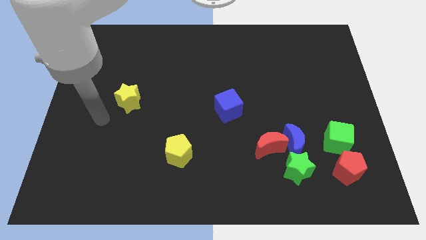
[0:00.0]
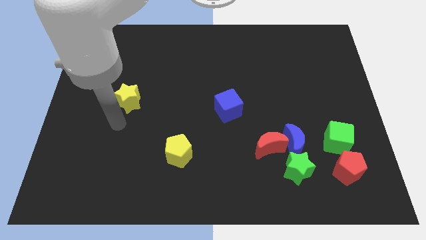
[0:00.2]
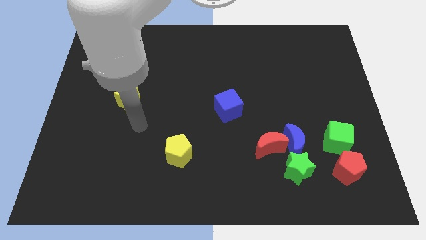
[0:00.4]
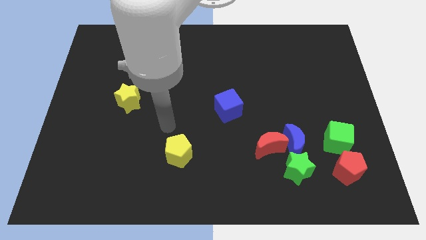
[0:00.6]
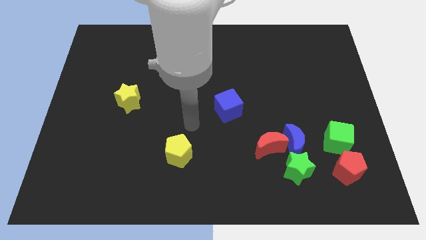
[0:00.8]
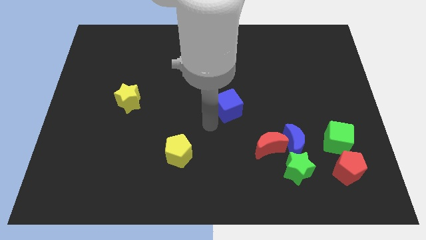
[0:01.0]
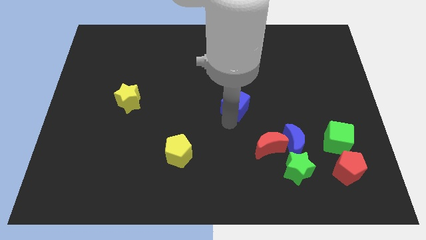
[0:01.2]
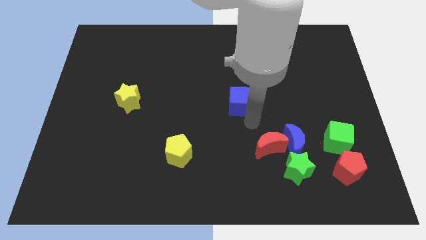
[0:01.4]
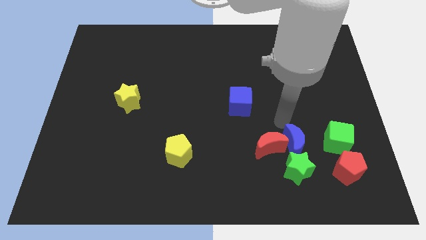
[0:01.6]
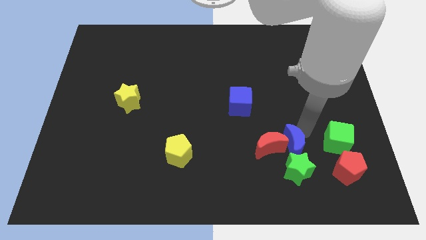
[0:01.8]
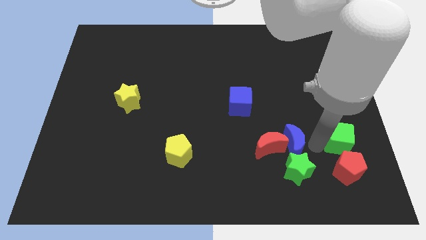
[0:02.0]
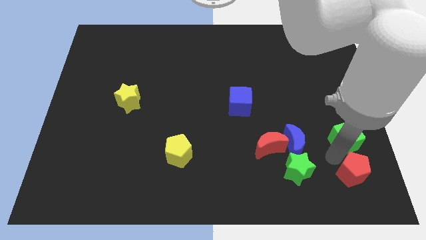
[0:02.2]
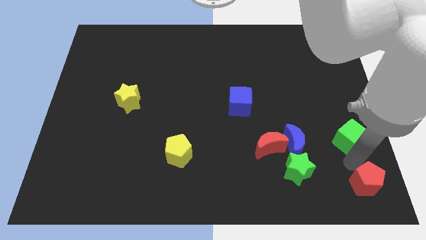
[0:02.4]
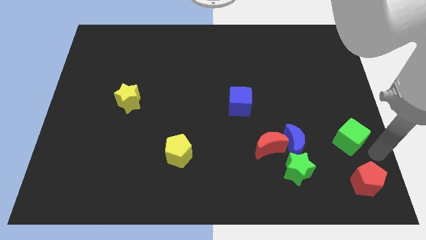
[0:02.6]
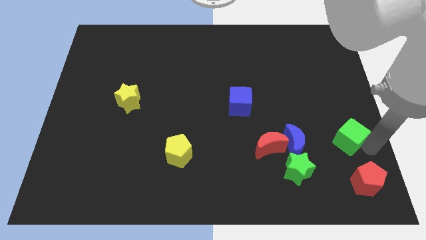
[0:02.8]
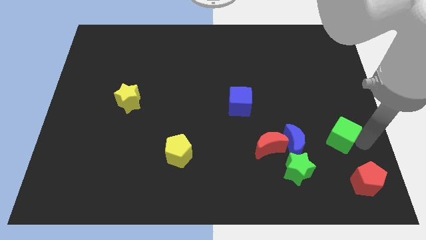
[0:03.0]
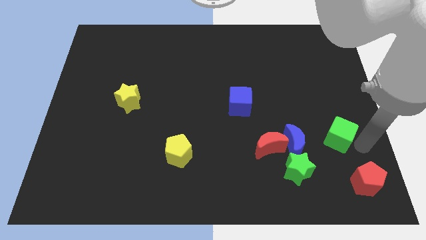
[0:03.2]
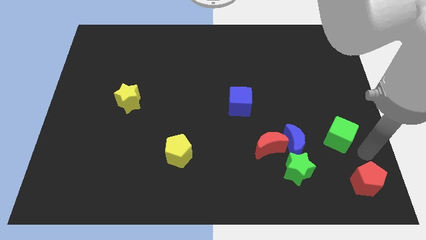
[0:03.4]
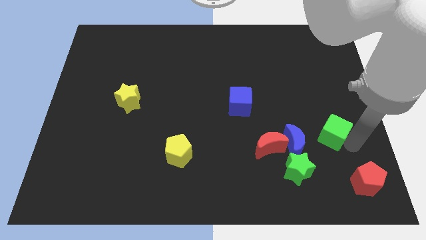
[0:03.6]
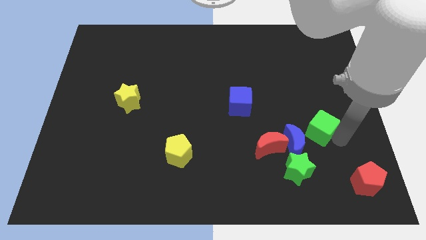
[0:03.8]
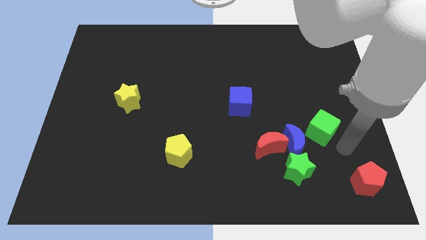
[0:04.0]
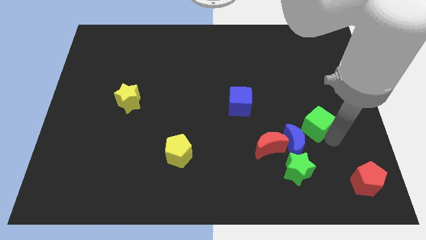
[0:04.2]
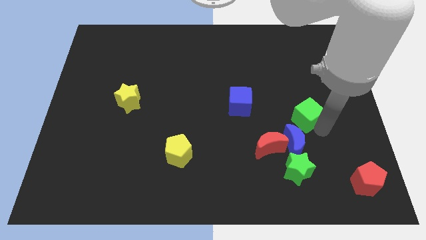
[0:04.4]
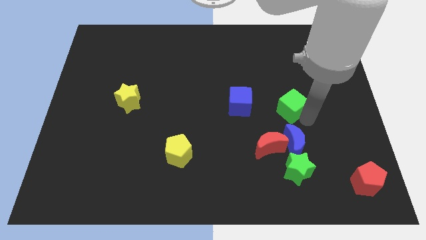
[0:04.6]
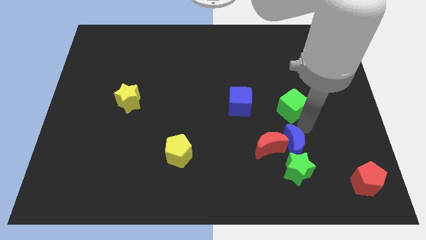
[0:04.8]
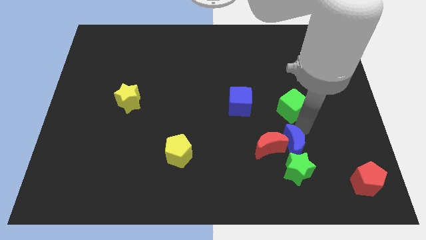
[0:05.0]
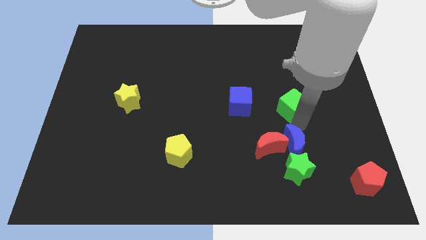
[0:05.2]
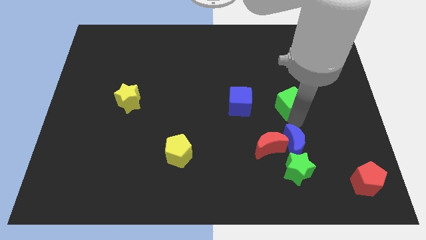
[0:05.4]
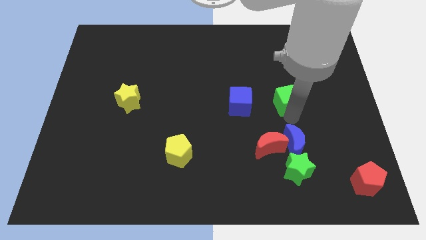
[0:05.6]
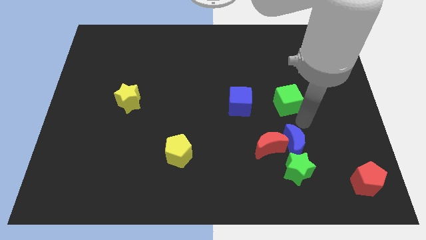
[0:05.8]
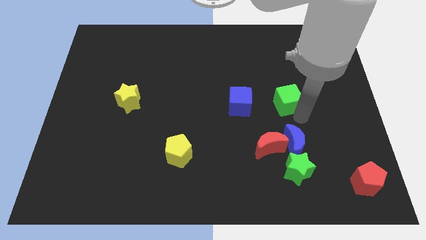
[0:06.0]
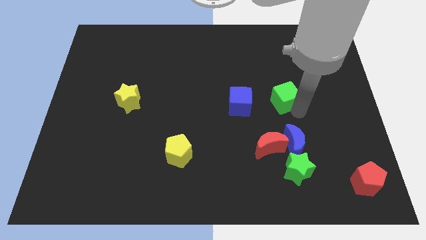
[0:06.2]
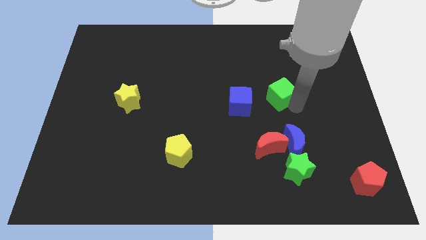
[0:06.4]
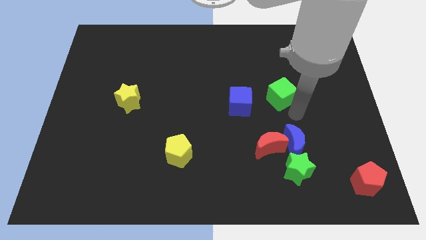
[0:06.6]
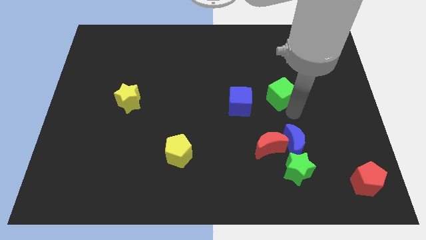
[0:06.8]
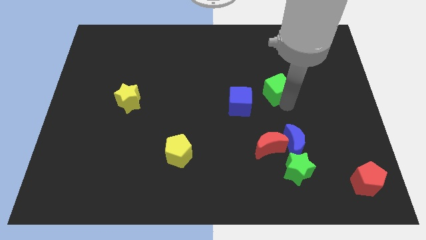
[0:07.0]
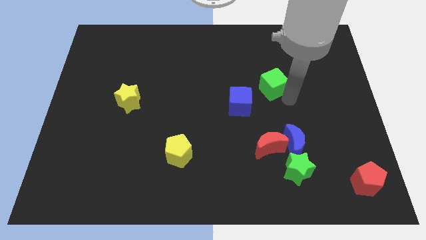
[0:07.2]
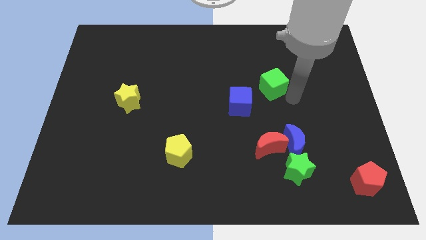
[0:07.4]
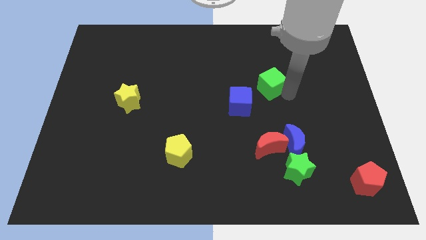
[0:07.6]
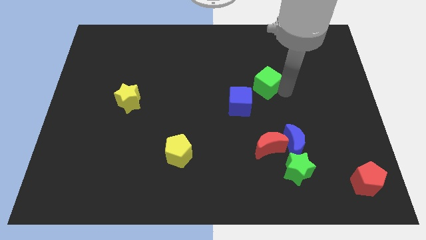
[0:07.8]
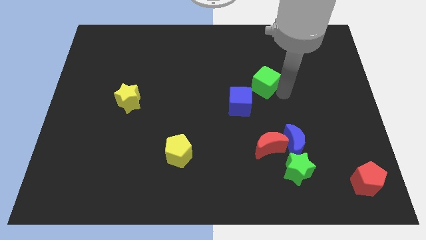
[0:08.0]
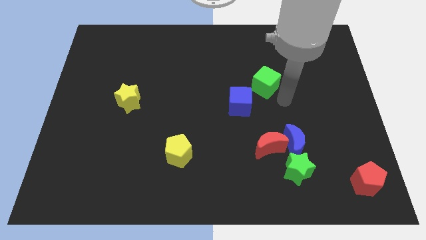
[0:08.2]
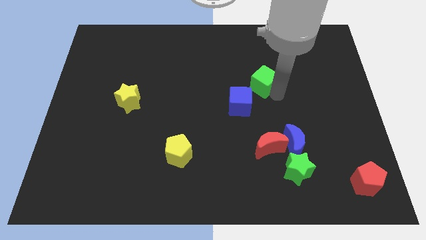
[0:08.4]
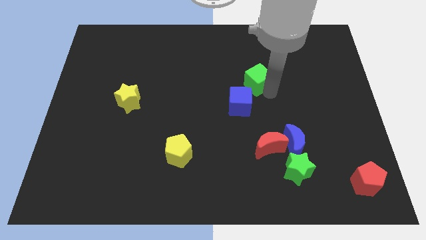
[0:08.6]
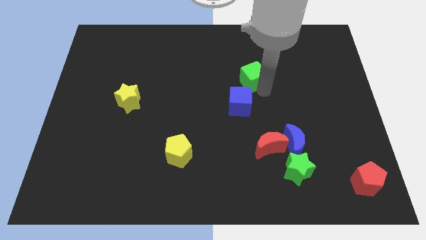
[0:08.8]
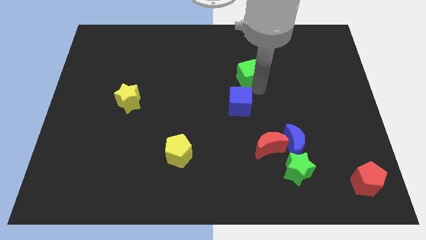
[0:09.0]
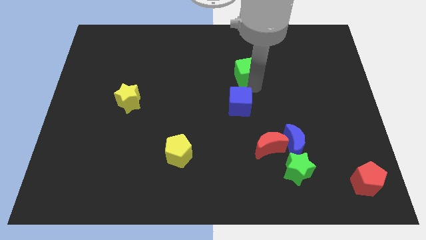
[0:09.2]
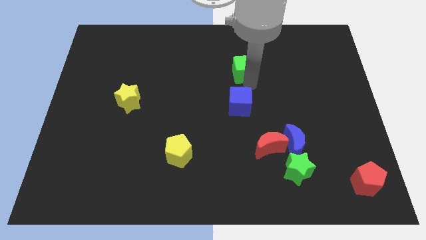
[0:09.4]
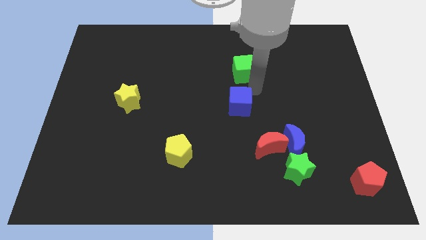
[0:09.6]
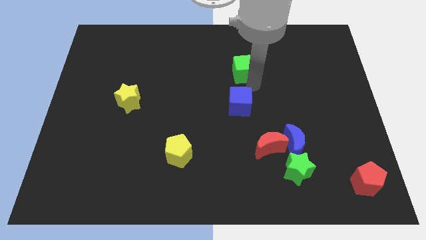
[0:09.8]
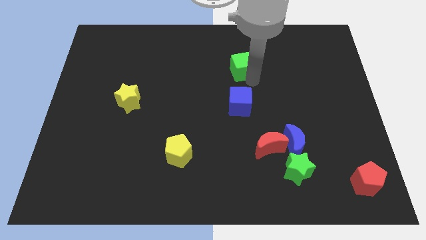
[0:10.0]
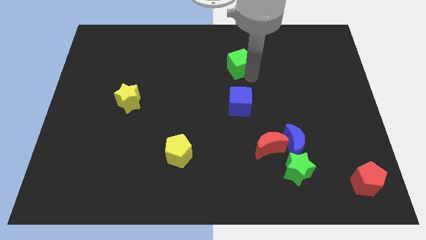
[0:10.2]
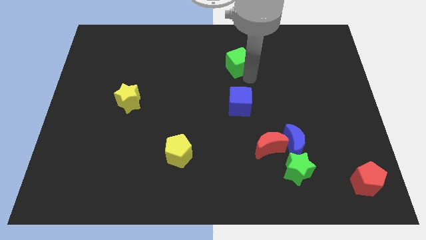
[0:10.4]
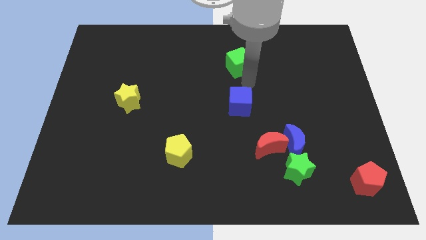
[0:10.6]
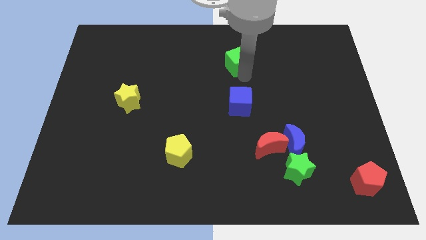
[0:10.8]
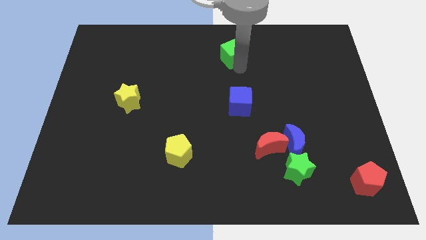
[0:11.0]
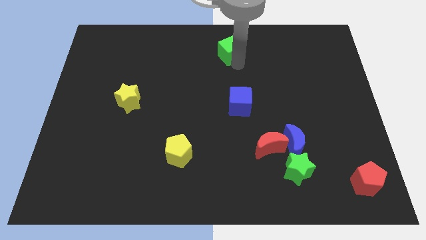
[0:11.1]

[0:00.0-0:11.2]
slide the green cube to the towards your base
